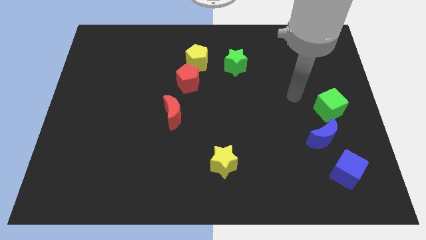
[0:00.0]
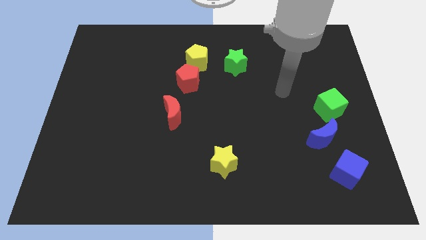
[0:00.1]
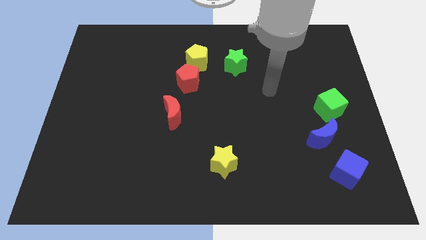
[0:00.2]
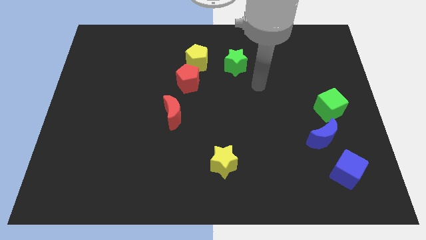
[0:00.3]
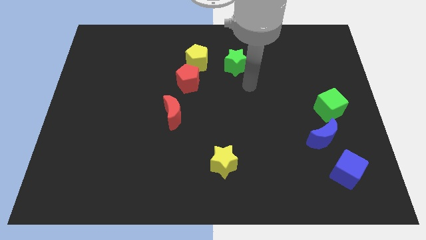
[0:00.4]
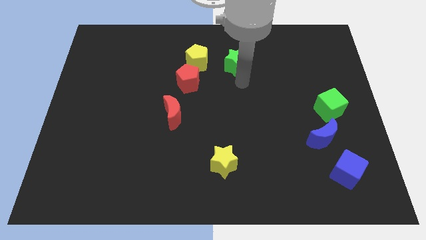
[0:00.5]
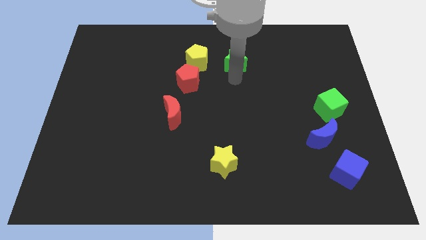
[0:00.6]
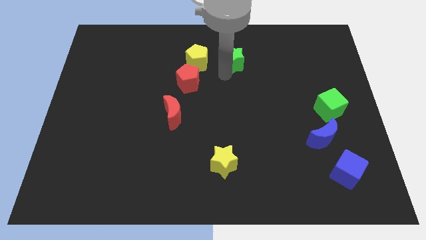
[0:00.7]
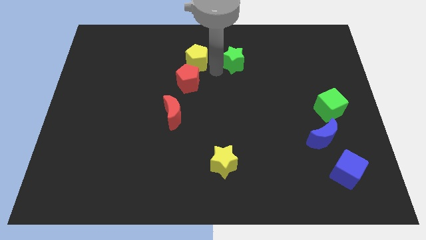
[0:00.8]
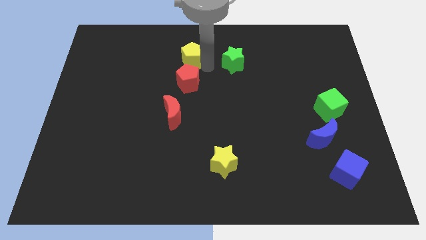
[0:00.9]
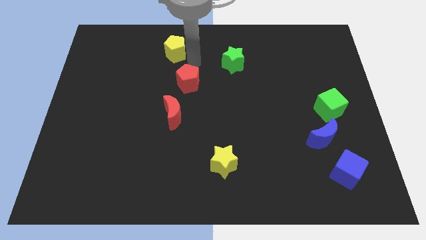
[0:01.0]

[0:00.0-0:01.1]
separate the red pentagon from the yellow pentagon

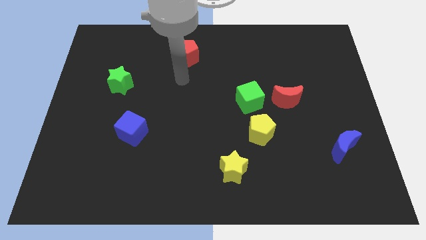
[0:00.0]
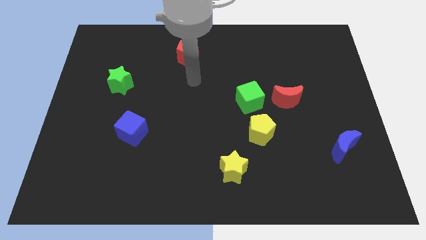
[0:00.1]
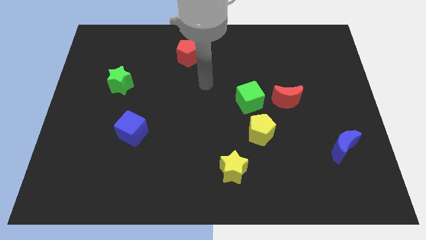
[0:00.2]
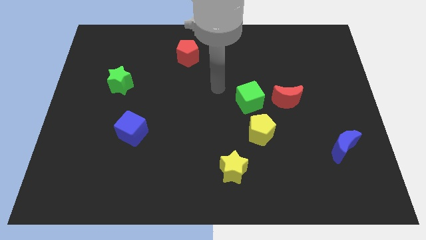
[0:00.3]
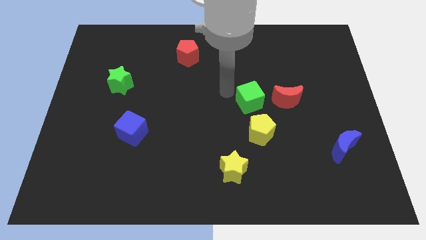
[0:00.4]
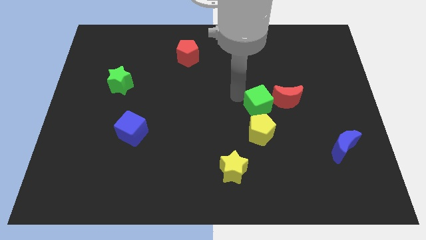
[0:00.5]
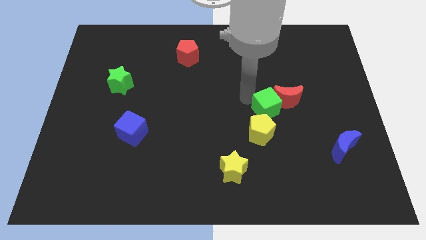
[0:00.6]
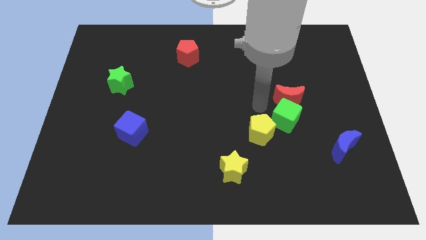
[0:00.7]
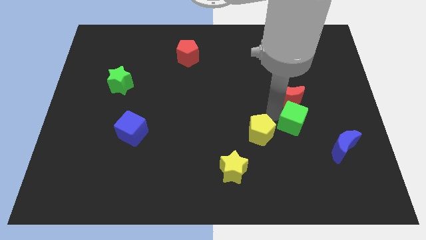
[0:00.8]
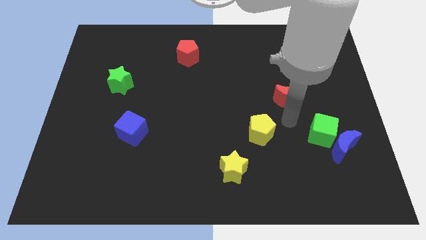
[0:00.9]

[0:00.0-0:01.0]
separate the red moon from the green cube

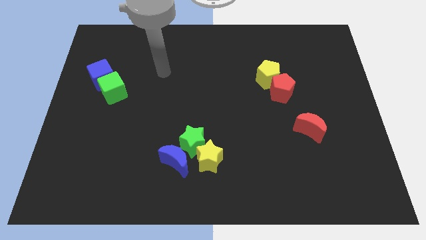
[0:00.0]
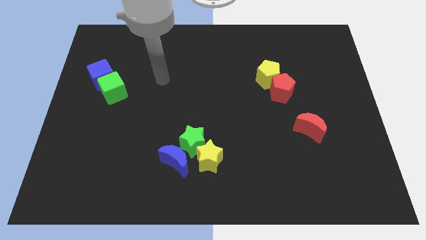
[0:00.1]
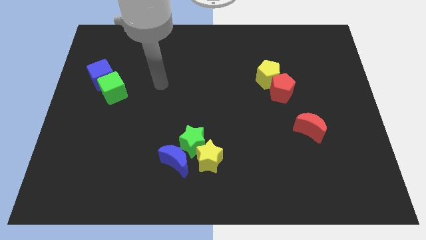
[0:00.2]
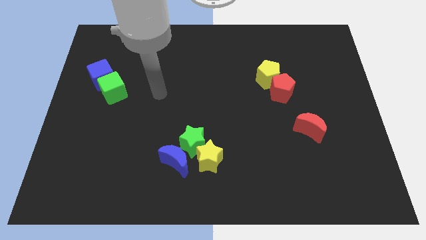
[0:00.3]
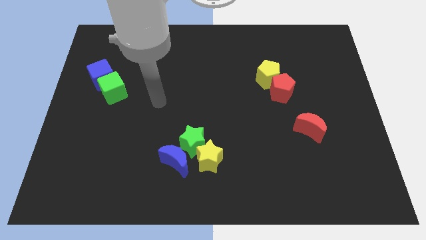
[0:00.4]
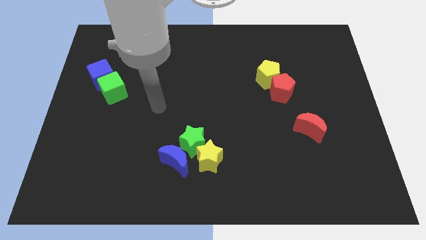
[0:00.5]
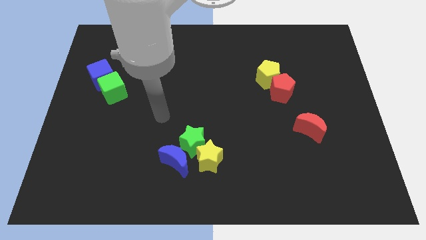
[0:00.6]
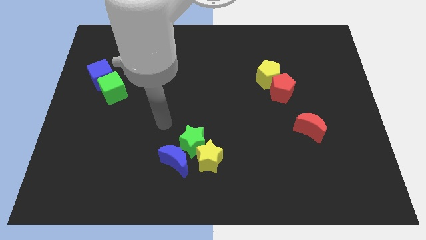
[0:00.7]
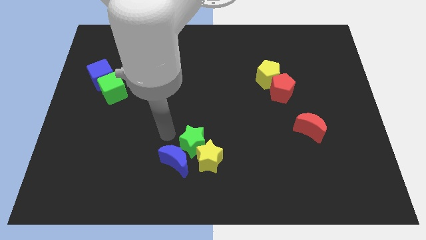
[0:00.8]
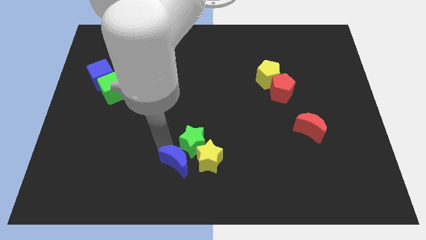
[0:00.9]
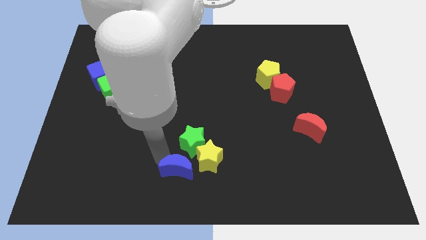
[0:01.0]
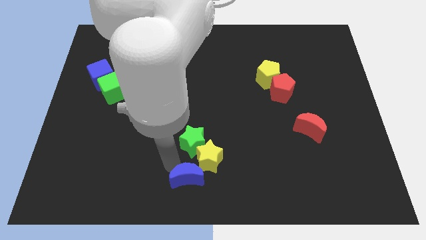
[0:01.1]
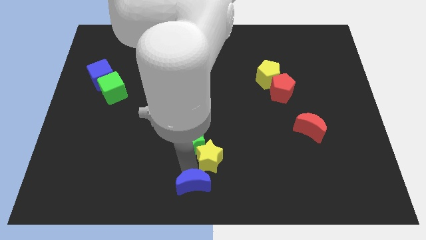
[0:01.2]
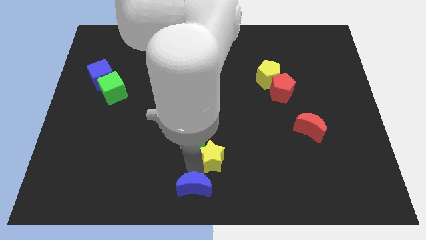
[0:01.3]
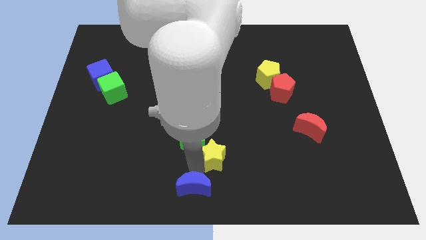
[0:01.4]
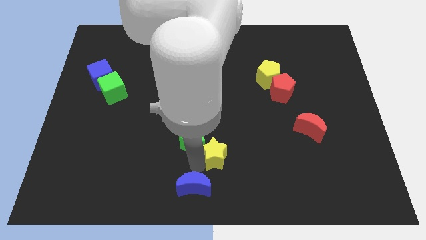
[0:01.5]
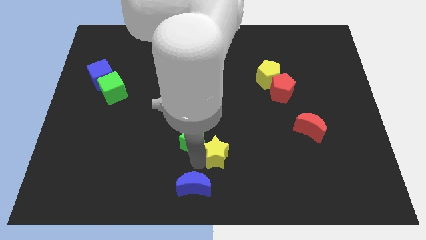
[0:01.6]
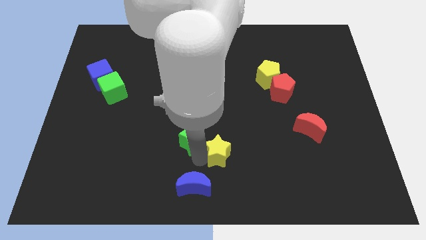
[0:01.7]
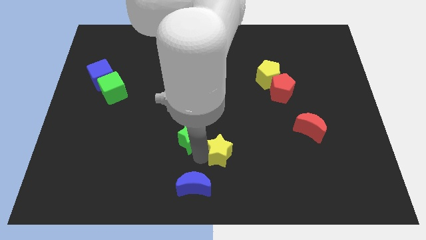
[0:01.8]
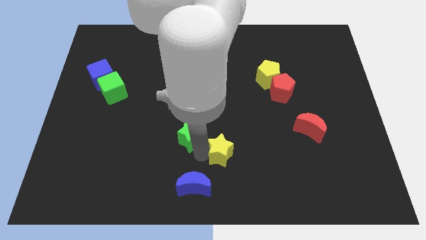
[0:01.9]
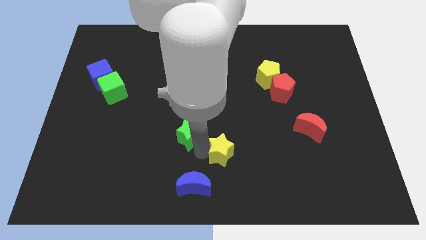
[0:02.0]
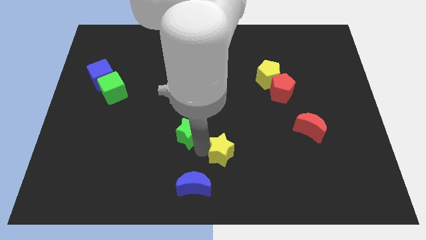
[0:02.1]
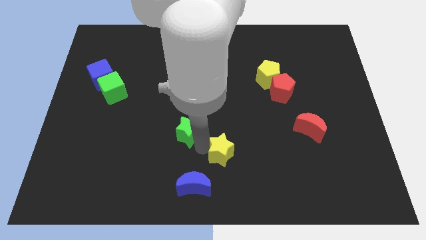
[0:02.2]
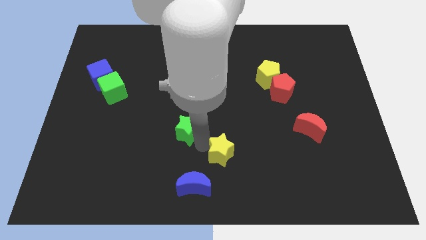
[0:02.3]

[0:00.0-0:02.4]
pull the green star apart from the yellow star and blue moon

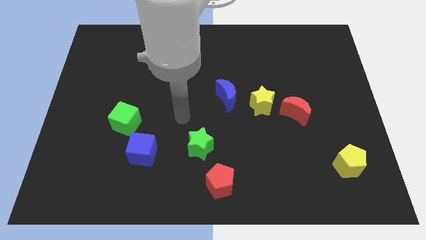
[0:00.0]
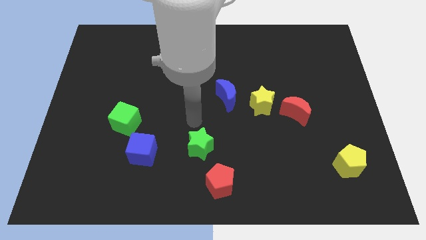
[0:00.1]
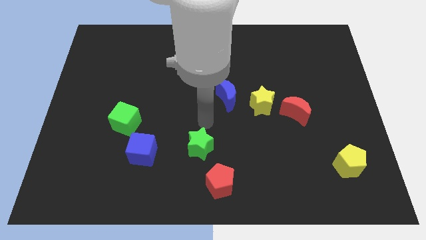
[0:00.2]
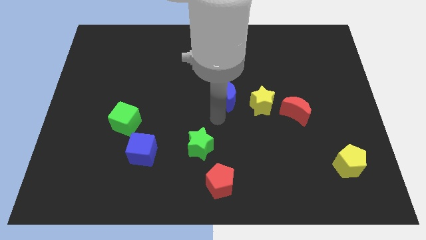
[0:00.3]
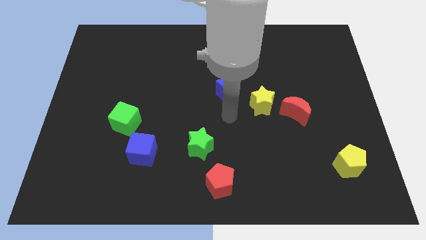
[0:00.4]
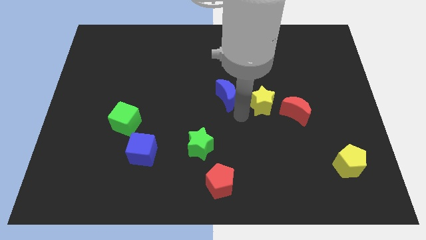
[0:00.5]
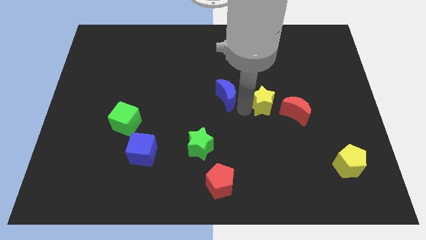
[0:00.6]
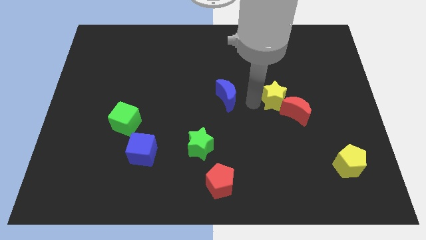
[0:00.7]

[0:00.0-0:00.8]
move the blue moon away from the yellow star

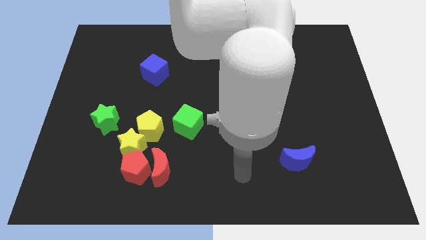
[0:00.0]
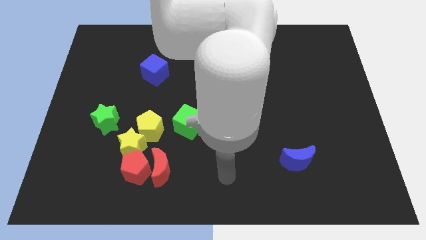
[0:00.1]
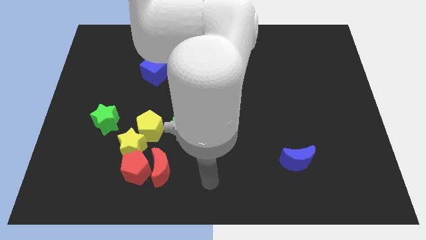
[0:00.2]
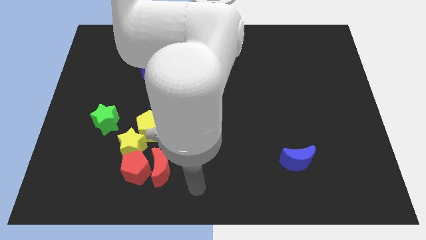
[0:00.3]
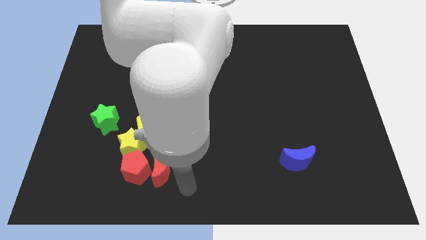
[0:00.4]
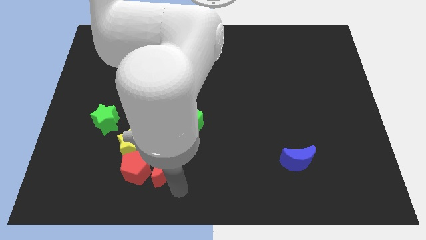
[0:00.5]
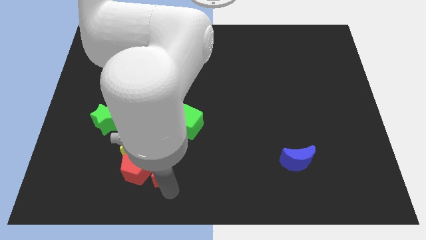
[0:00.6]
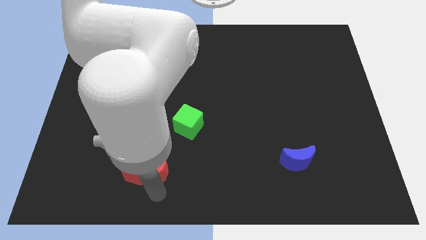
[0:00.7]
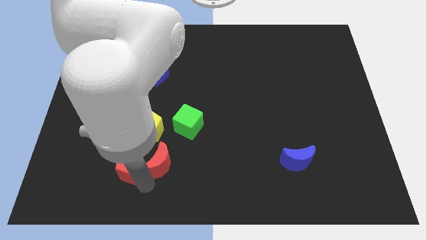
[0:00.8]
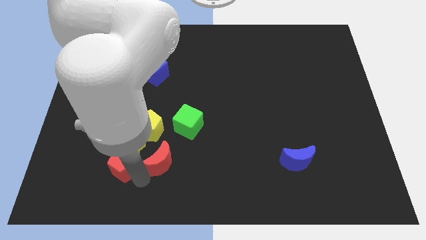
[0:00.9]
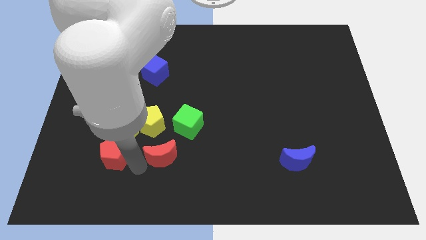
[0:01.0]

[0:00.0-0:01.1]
move the red moon away from the red pentagon and yellow star

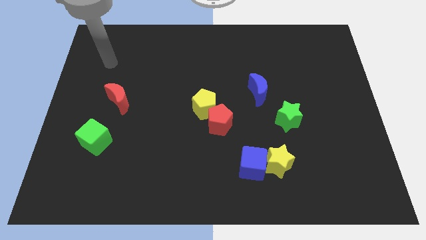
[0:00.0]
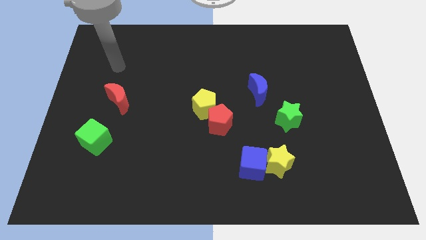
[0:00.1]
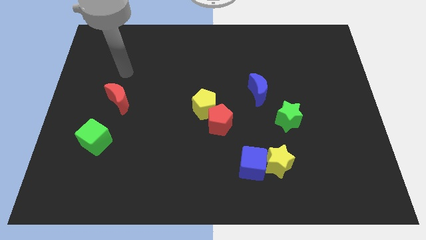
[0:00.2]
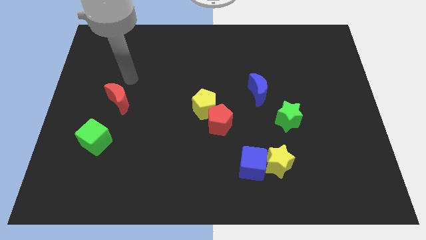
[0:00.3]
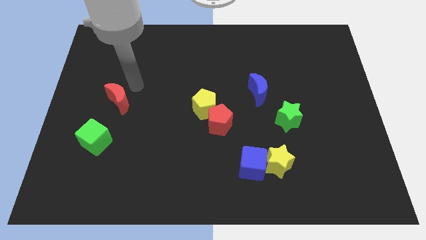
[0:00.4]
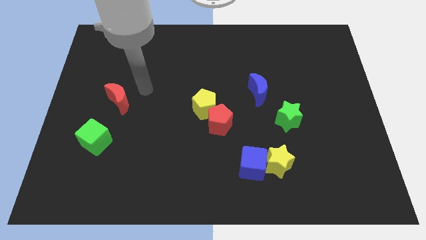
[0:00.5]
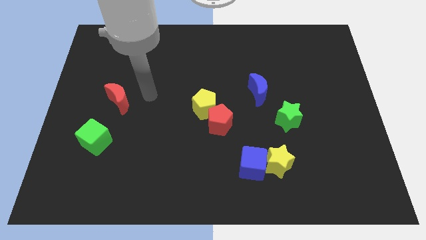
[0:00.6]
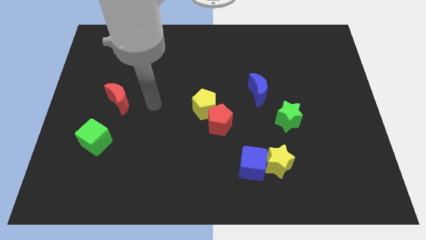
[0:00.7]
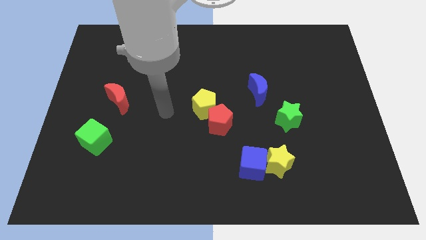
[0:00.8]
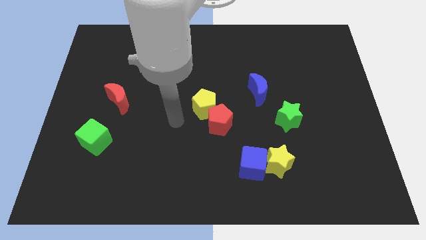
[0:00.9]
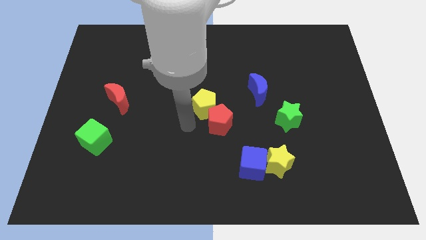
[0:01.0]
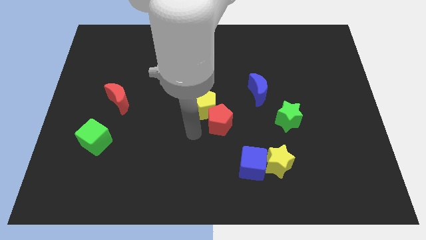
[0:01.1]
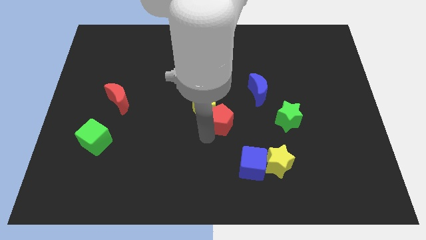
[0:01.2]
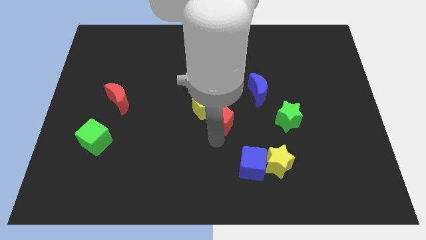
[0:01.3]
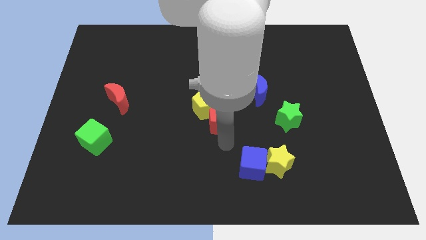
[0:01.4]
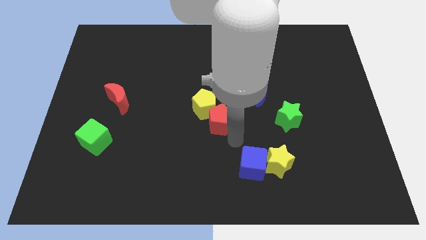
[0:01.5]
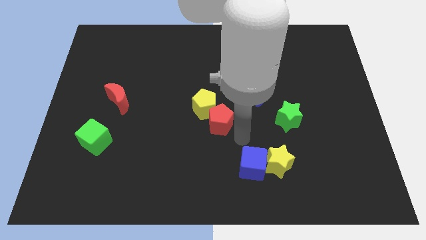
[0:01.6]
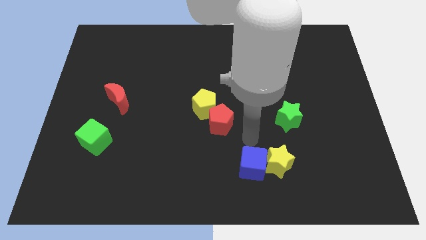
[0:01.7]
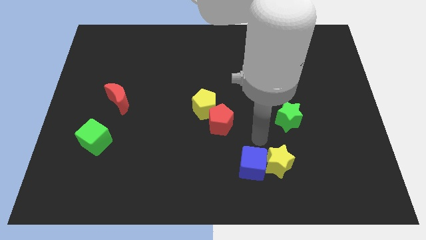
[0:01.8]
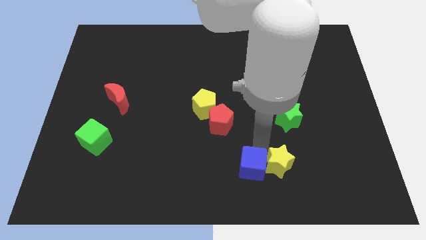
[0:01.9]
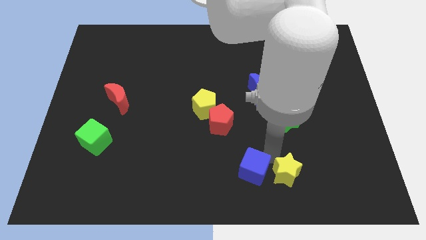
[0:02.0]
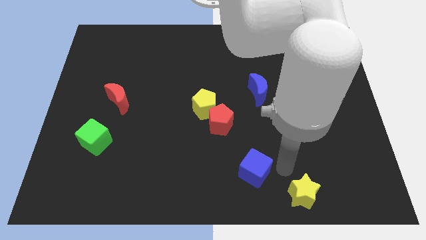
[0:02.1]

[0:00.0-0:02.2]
separate the blue cube from the yellow star

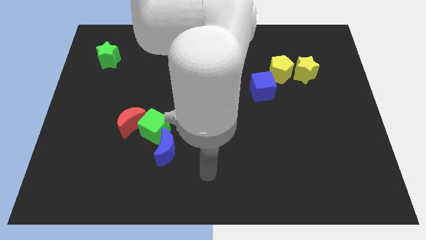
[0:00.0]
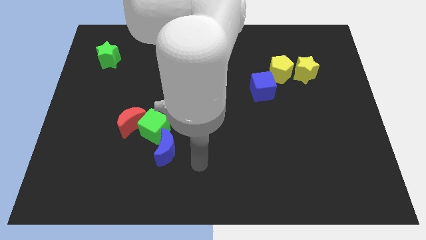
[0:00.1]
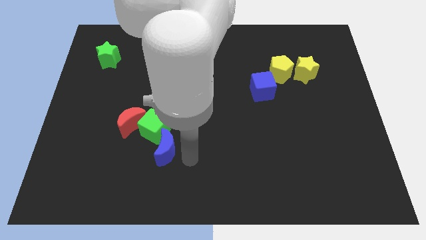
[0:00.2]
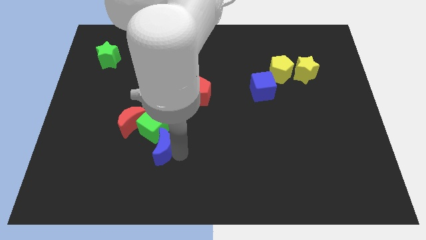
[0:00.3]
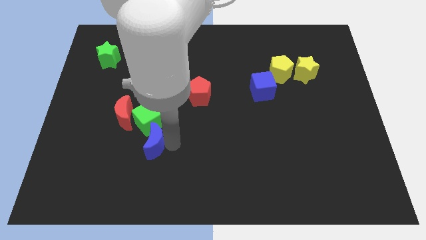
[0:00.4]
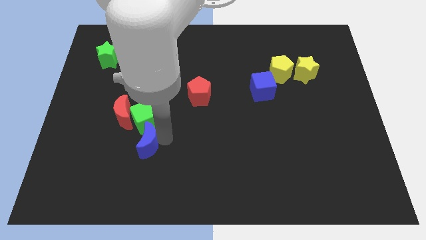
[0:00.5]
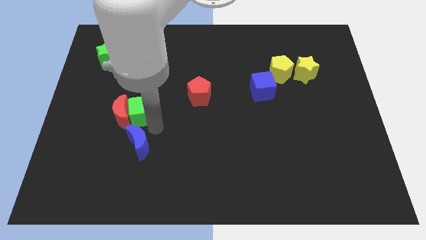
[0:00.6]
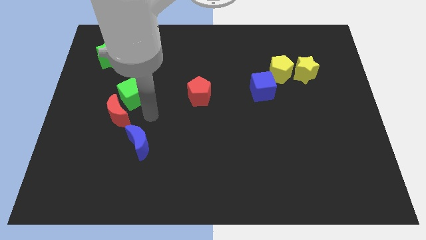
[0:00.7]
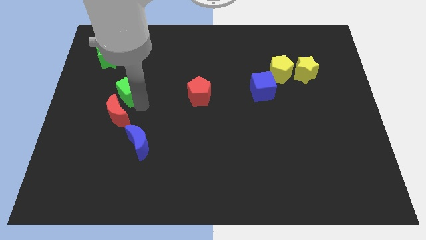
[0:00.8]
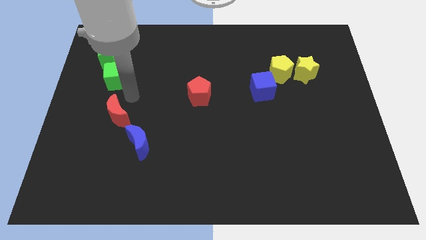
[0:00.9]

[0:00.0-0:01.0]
pull the red moon apart from the green cube
